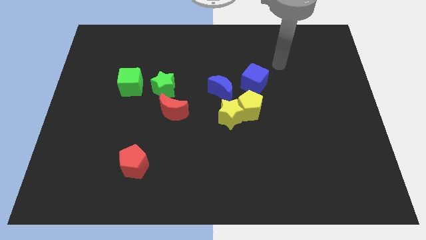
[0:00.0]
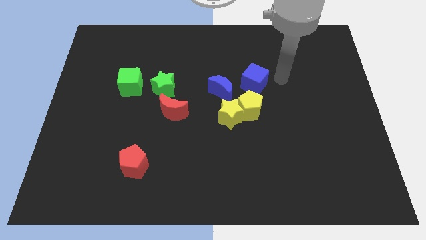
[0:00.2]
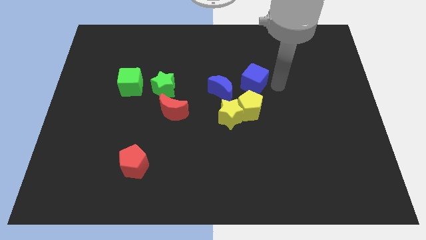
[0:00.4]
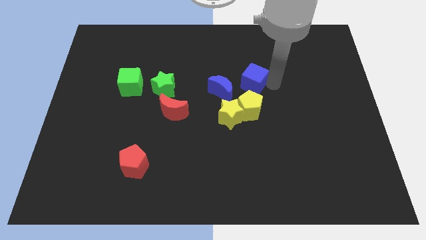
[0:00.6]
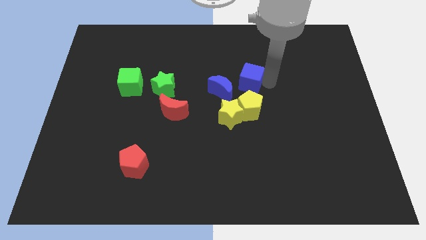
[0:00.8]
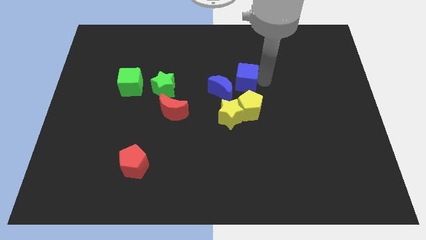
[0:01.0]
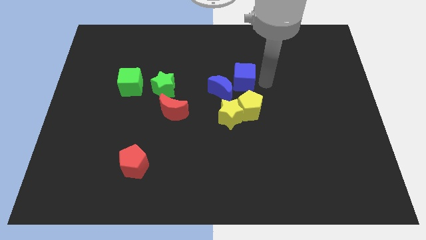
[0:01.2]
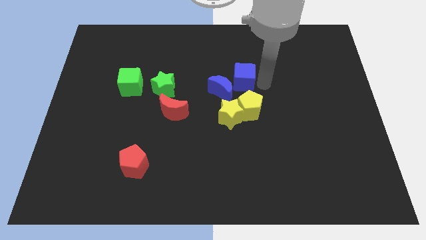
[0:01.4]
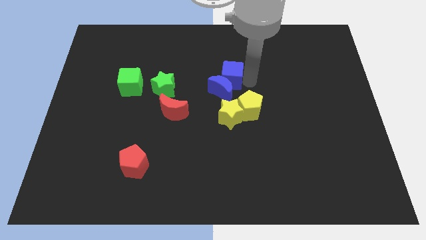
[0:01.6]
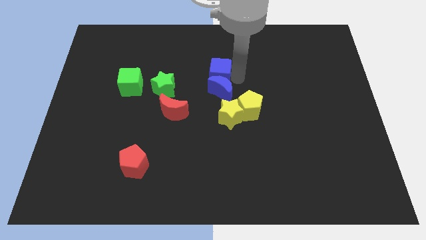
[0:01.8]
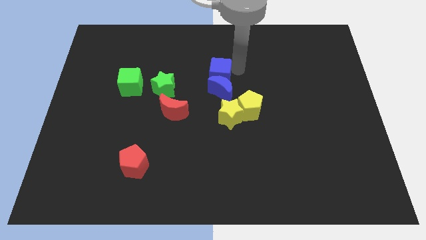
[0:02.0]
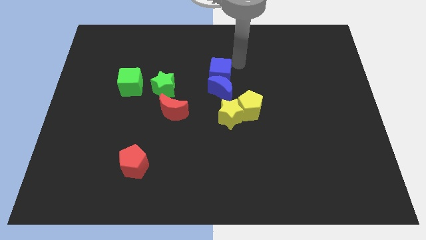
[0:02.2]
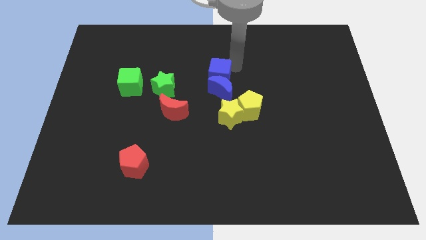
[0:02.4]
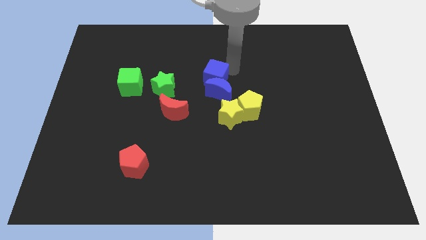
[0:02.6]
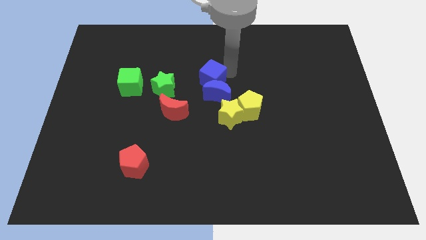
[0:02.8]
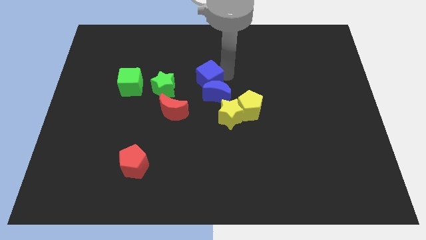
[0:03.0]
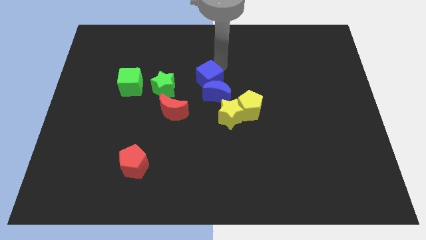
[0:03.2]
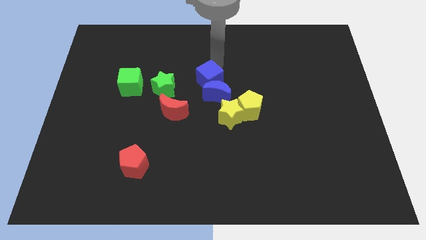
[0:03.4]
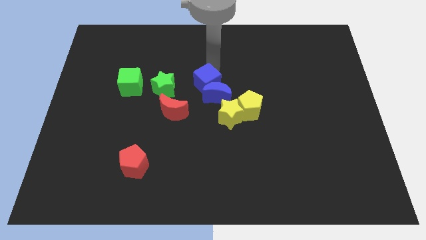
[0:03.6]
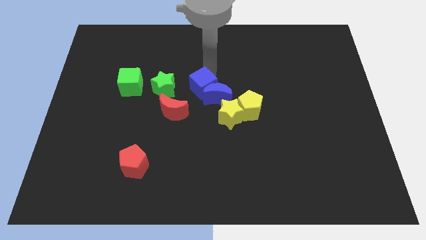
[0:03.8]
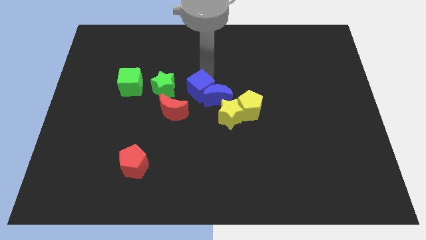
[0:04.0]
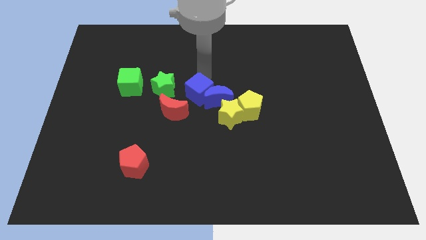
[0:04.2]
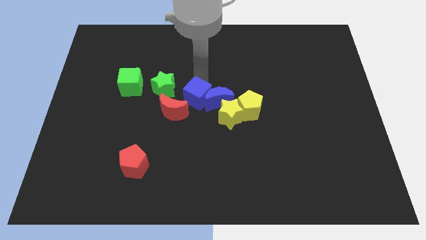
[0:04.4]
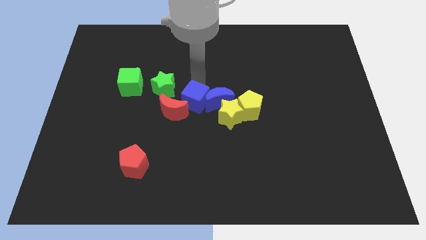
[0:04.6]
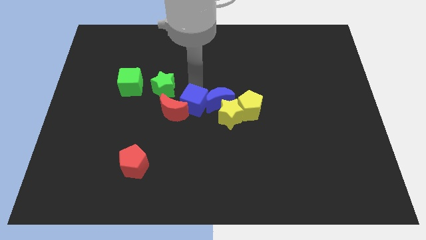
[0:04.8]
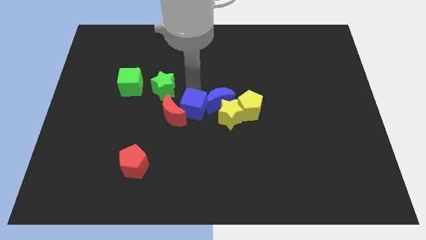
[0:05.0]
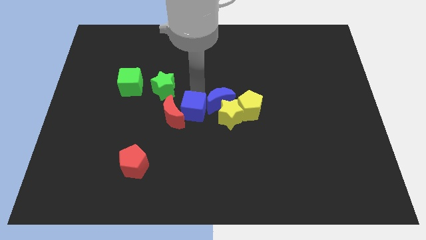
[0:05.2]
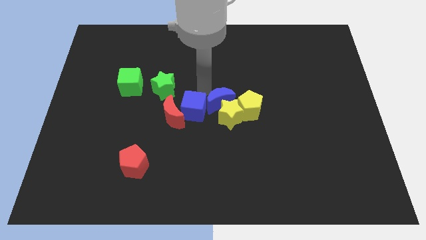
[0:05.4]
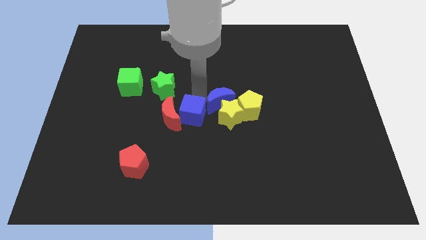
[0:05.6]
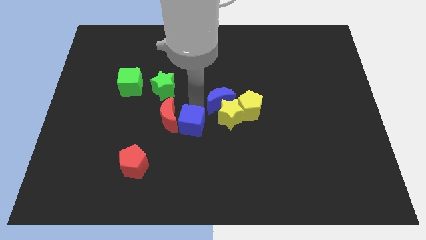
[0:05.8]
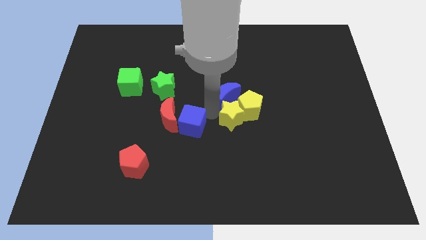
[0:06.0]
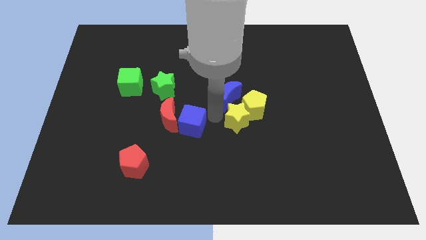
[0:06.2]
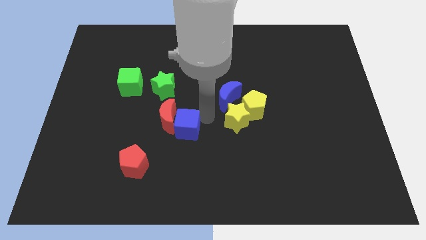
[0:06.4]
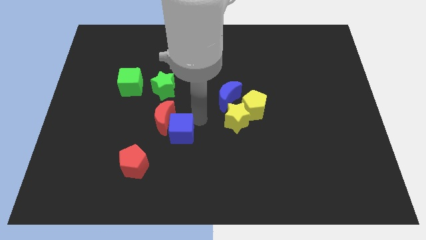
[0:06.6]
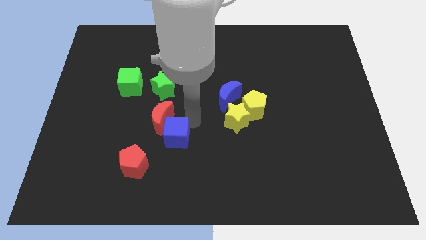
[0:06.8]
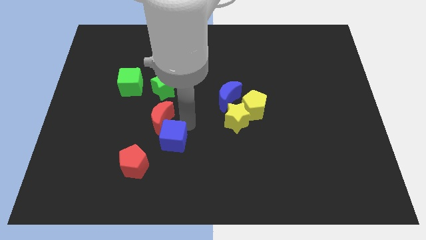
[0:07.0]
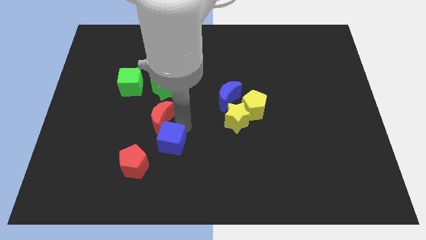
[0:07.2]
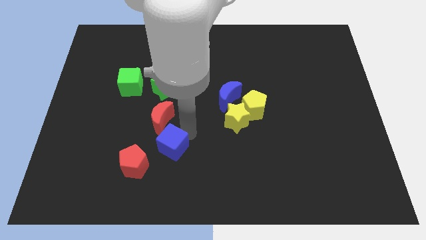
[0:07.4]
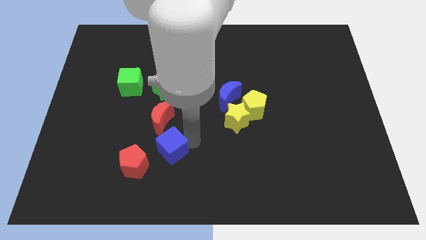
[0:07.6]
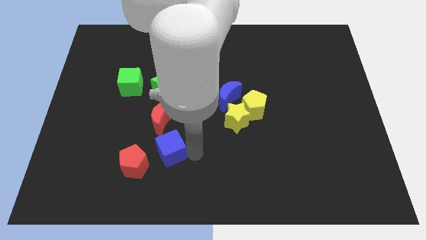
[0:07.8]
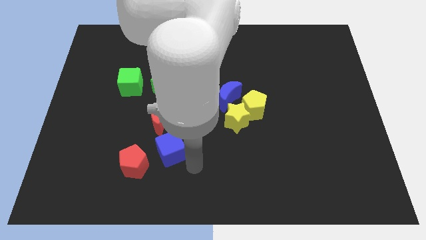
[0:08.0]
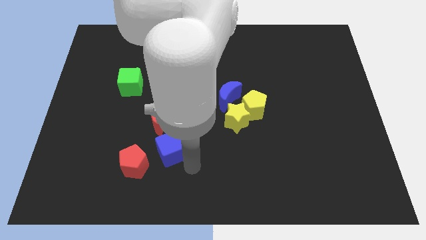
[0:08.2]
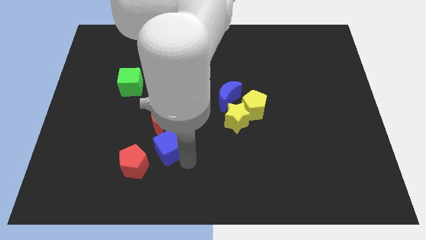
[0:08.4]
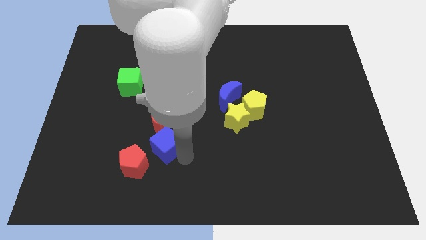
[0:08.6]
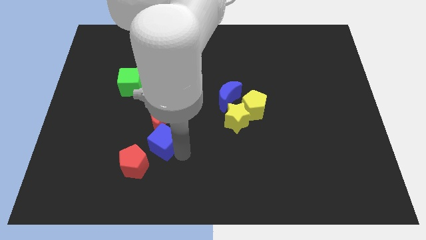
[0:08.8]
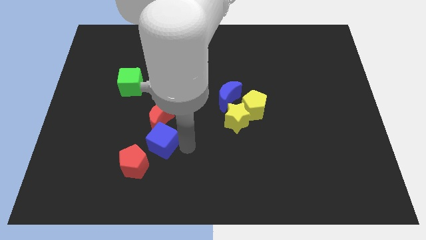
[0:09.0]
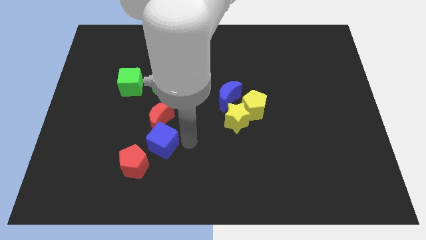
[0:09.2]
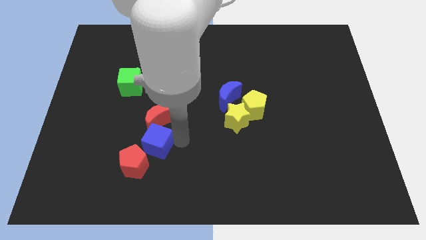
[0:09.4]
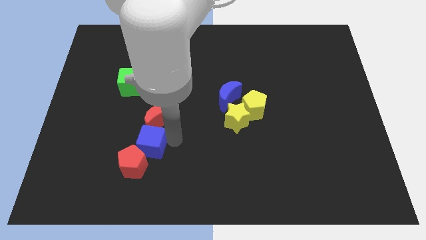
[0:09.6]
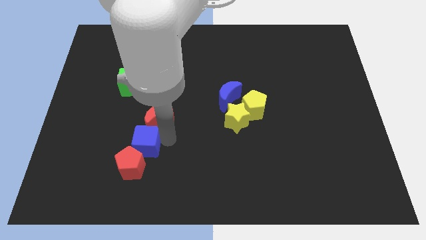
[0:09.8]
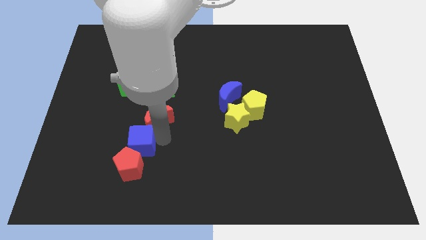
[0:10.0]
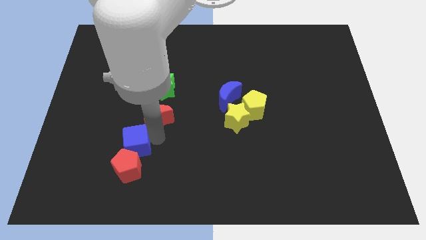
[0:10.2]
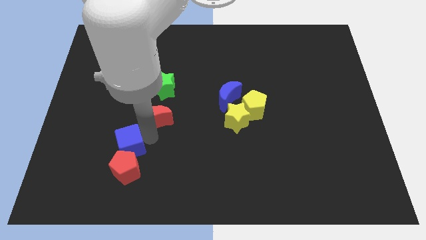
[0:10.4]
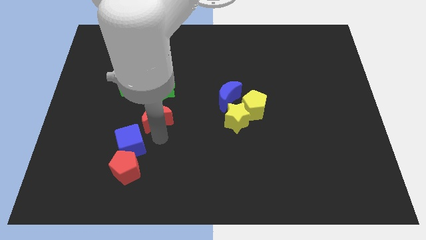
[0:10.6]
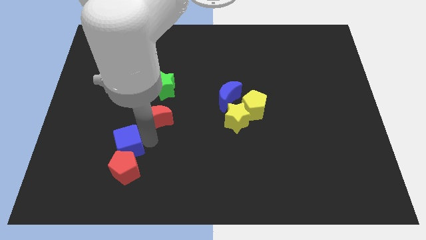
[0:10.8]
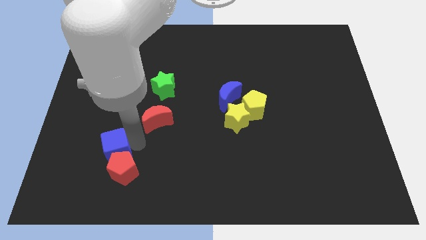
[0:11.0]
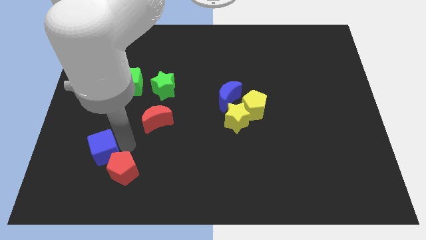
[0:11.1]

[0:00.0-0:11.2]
put the blue cube to the left side of the red pentagon

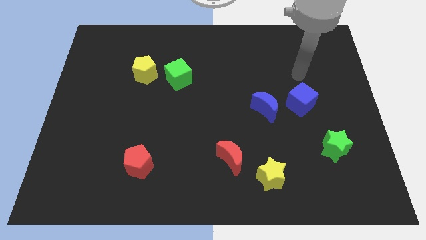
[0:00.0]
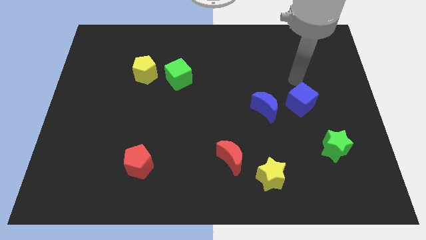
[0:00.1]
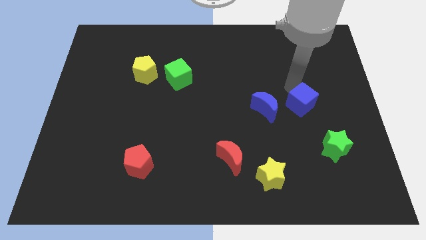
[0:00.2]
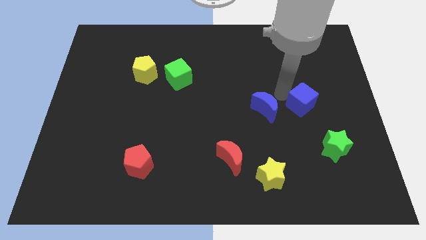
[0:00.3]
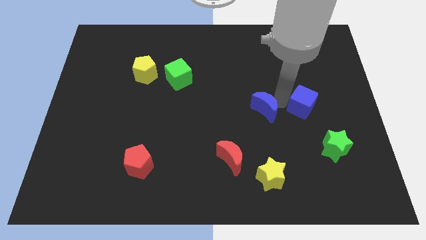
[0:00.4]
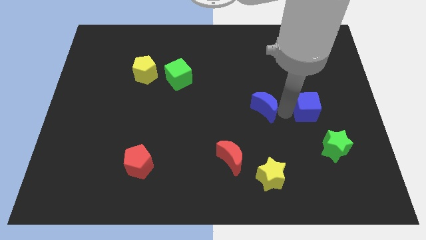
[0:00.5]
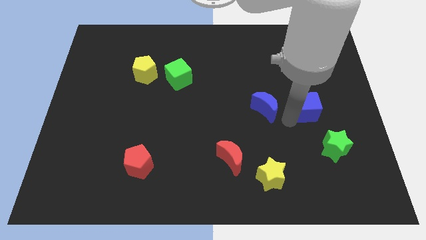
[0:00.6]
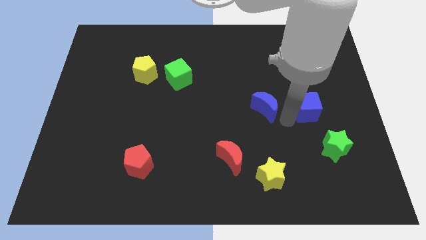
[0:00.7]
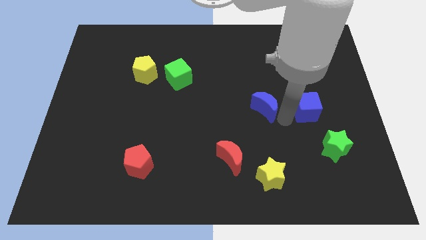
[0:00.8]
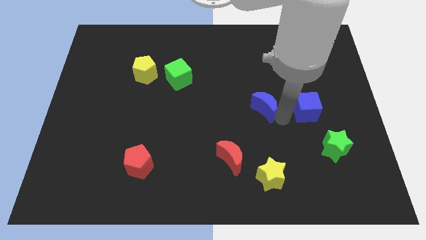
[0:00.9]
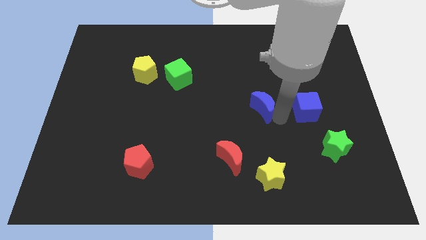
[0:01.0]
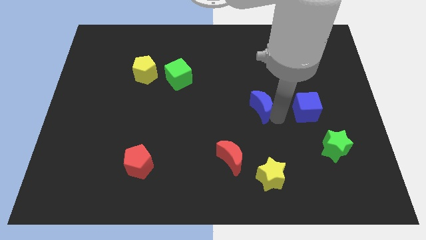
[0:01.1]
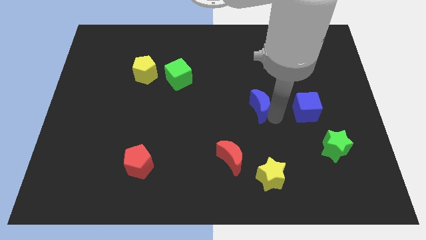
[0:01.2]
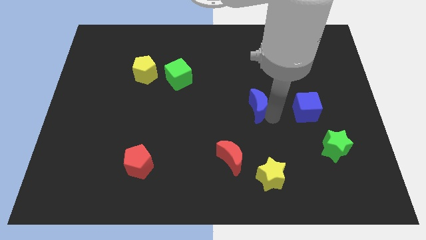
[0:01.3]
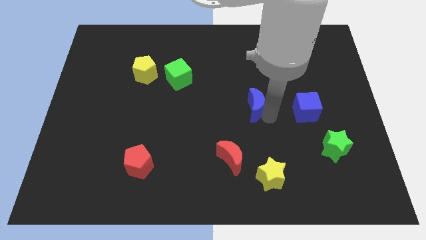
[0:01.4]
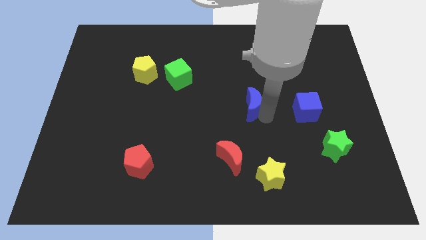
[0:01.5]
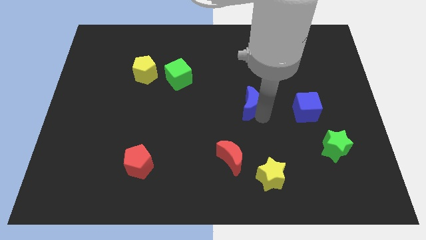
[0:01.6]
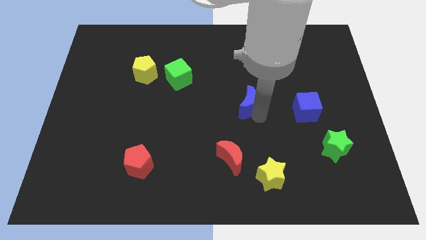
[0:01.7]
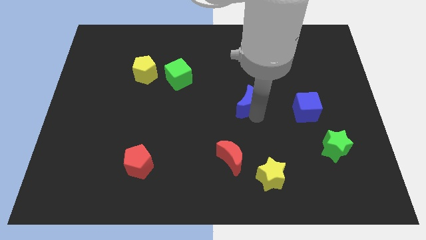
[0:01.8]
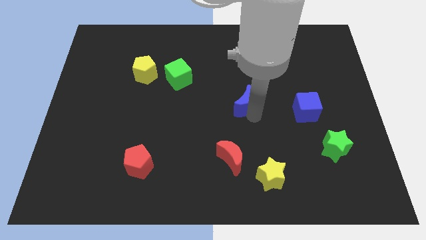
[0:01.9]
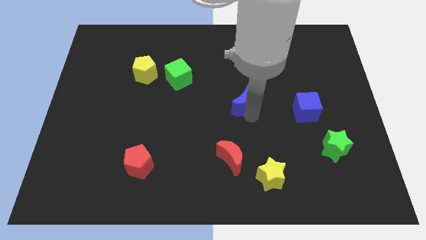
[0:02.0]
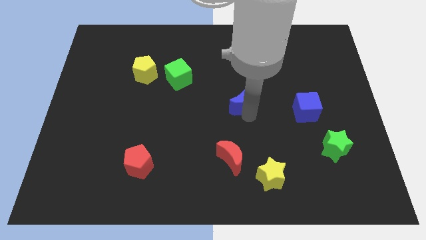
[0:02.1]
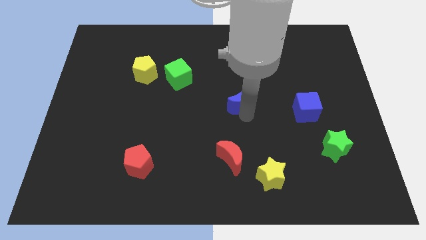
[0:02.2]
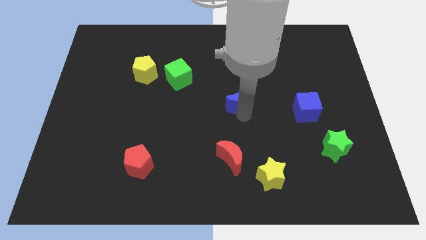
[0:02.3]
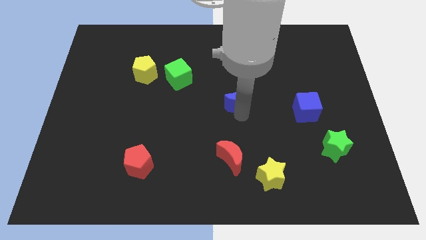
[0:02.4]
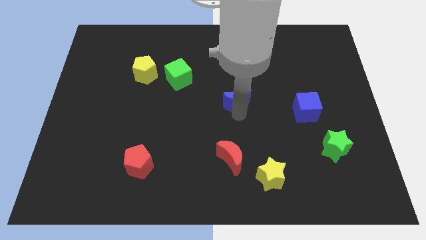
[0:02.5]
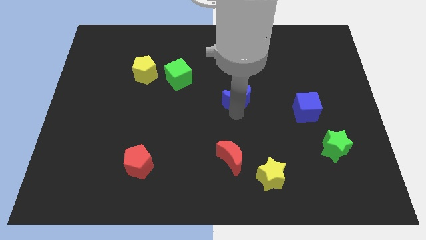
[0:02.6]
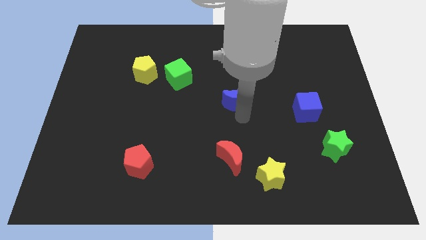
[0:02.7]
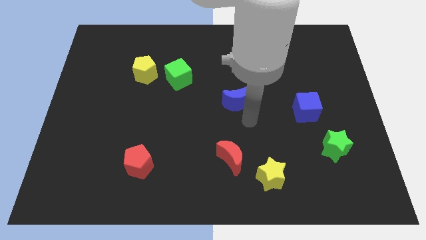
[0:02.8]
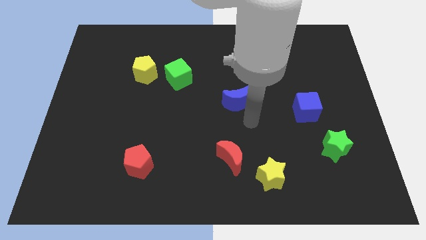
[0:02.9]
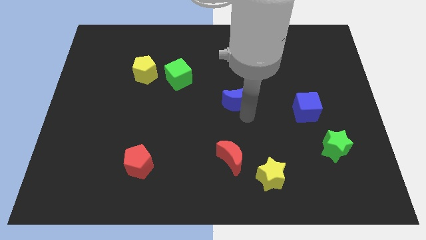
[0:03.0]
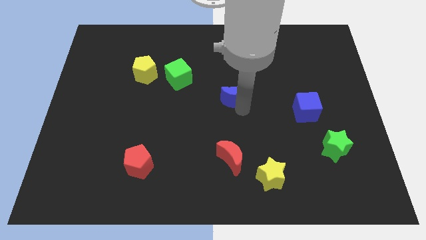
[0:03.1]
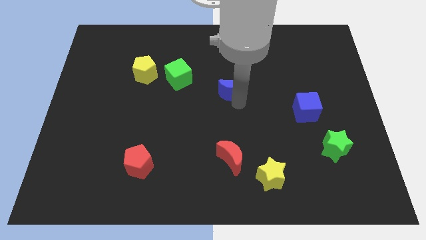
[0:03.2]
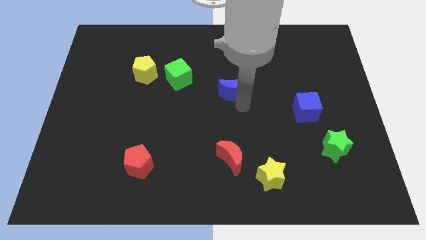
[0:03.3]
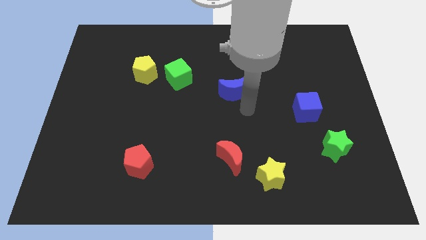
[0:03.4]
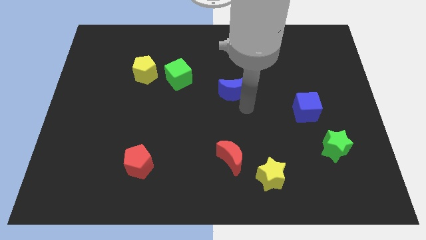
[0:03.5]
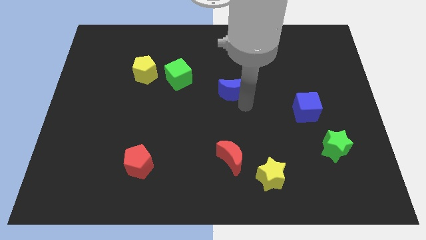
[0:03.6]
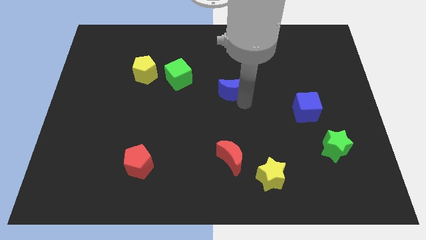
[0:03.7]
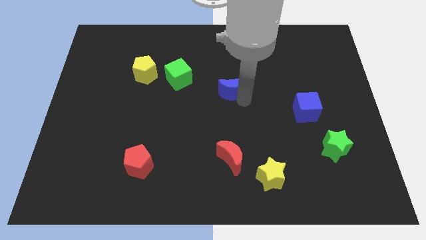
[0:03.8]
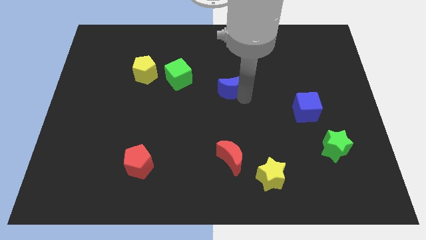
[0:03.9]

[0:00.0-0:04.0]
slide the blue moon to the right of the green cube
